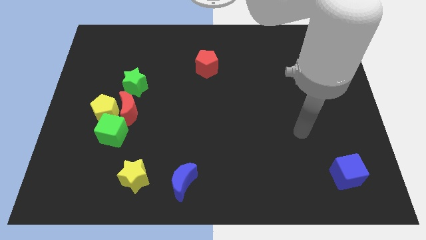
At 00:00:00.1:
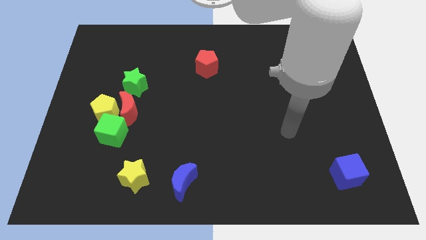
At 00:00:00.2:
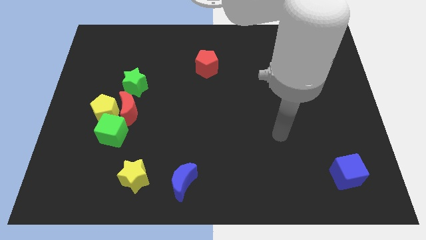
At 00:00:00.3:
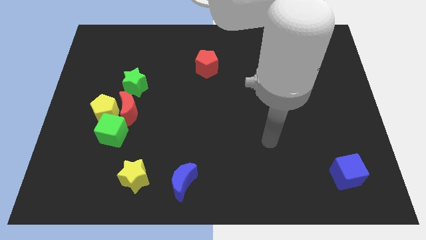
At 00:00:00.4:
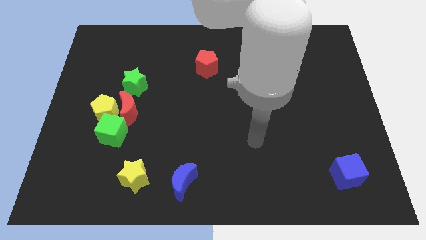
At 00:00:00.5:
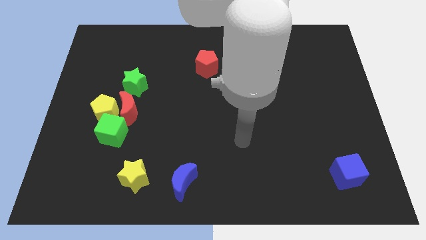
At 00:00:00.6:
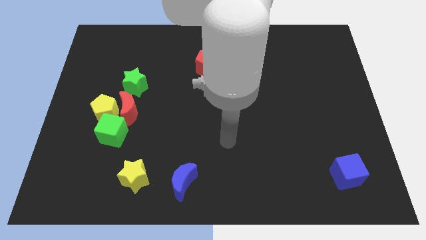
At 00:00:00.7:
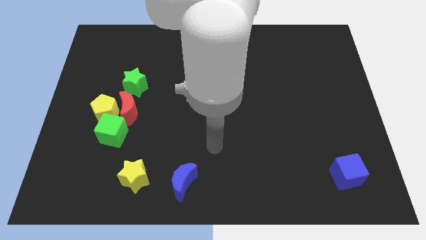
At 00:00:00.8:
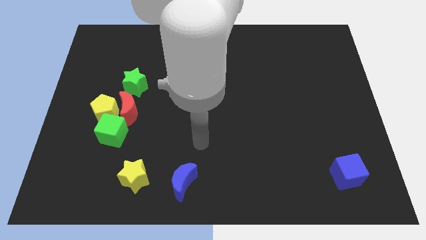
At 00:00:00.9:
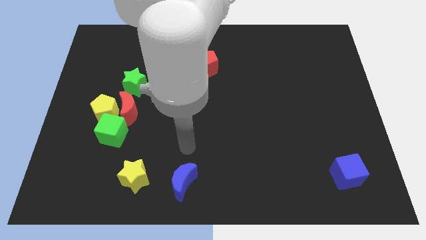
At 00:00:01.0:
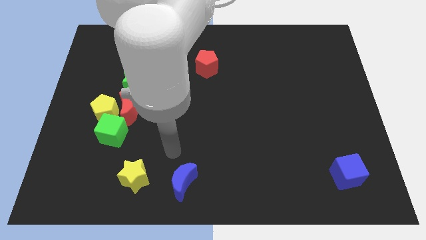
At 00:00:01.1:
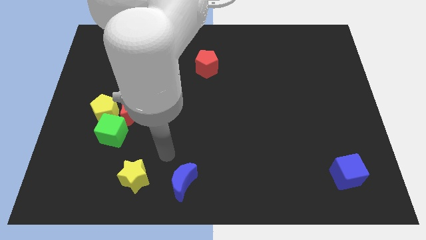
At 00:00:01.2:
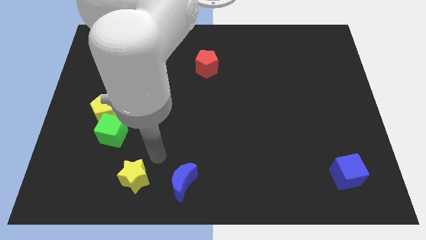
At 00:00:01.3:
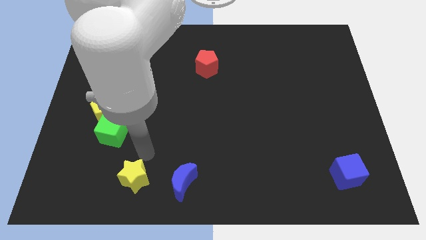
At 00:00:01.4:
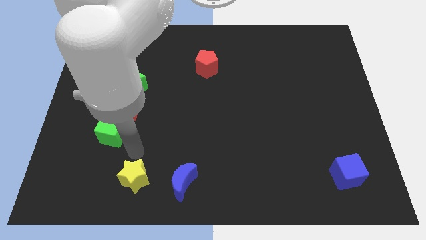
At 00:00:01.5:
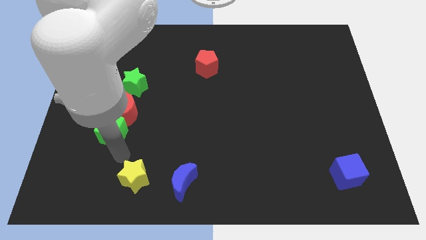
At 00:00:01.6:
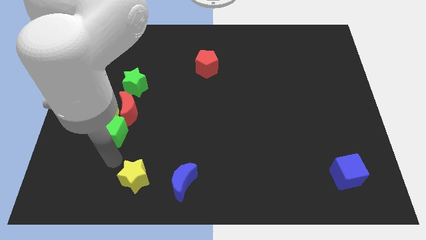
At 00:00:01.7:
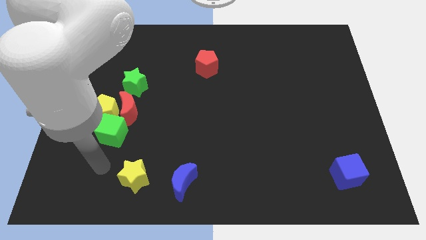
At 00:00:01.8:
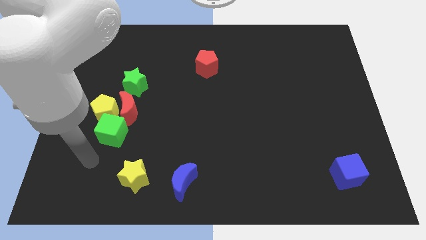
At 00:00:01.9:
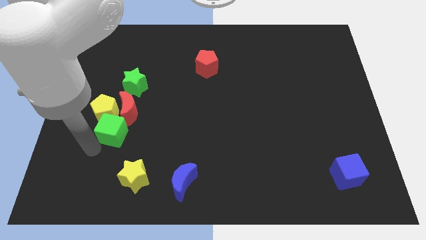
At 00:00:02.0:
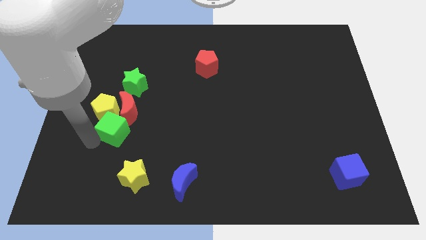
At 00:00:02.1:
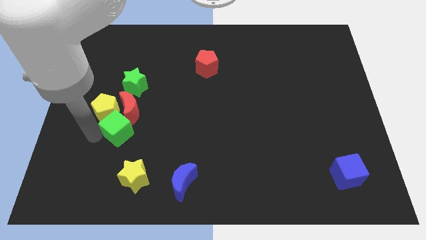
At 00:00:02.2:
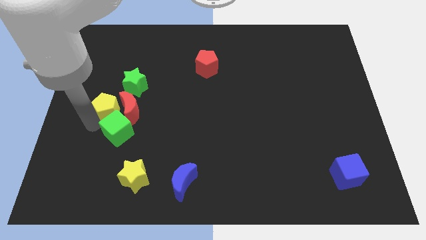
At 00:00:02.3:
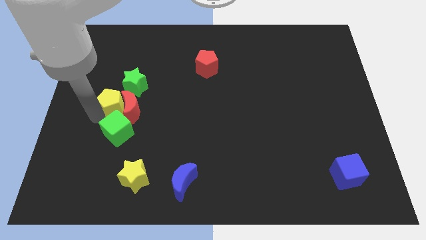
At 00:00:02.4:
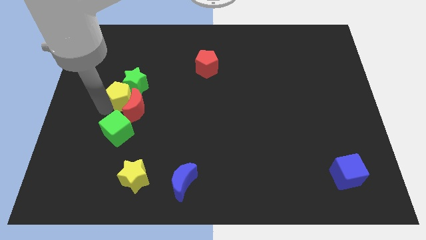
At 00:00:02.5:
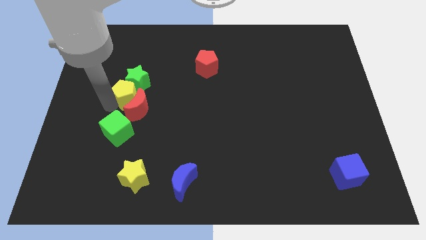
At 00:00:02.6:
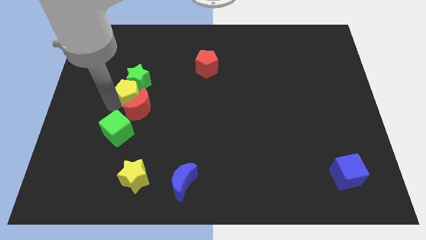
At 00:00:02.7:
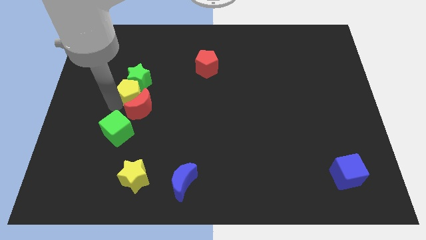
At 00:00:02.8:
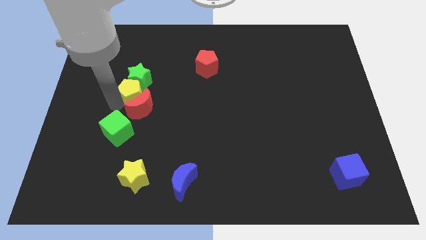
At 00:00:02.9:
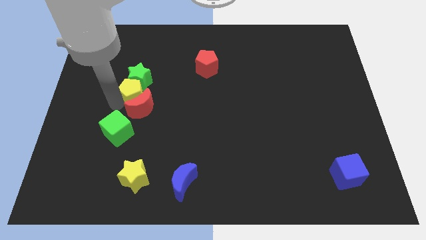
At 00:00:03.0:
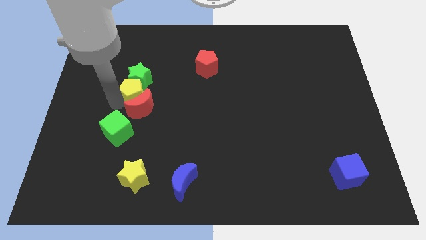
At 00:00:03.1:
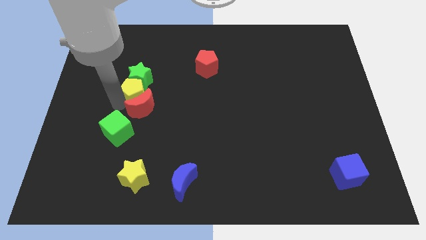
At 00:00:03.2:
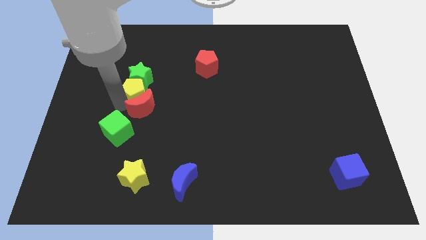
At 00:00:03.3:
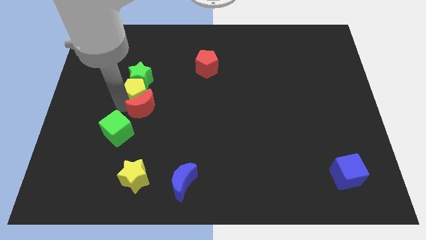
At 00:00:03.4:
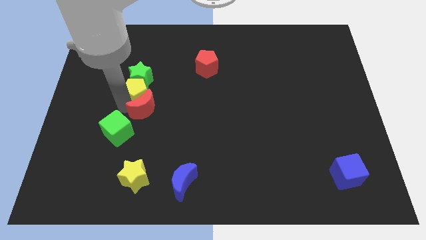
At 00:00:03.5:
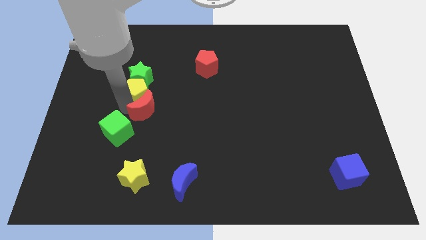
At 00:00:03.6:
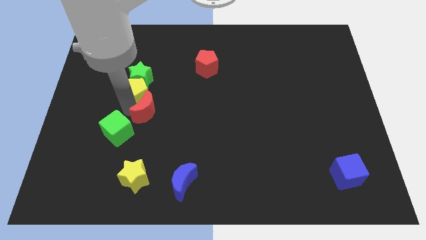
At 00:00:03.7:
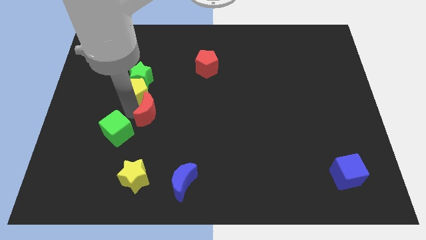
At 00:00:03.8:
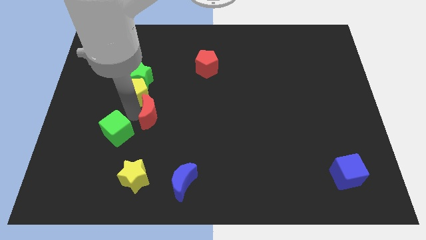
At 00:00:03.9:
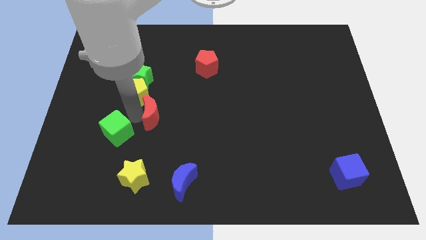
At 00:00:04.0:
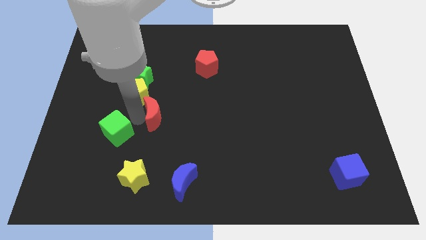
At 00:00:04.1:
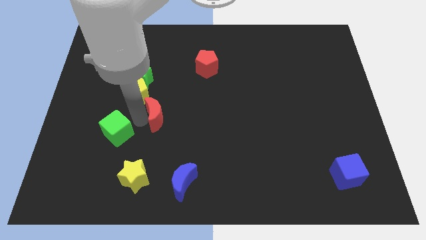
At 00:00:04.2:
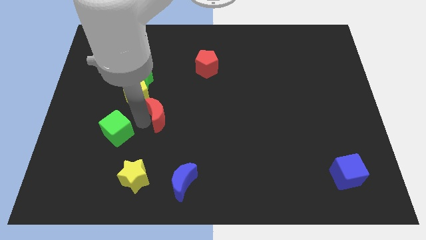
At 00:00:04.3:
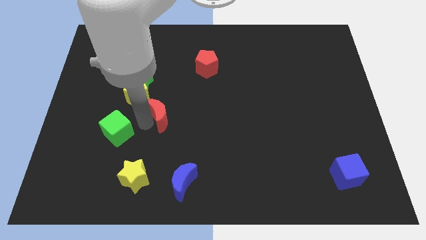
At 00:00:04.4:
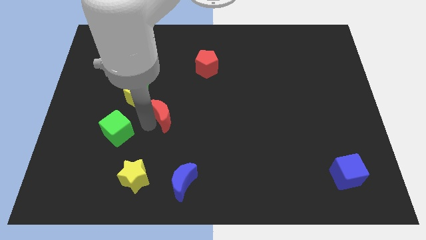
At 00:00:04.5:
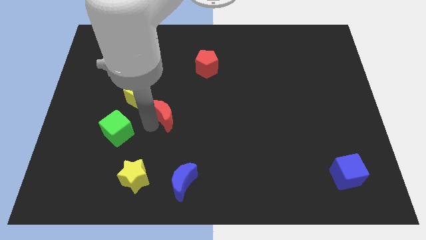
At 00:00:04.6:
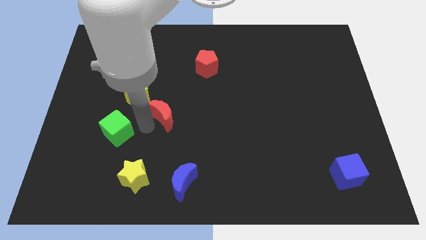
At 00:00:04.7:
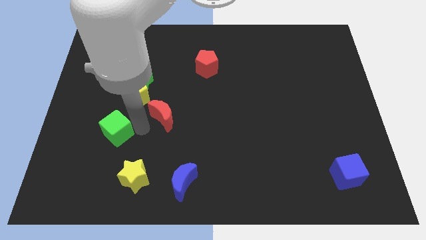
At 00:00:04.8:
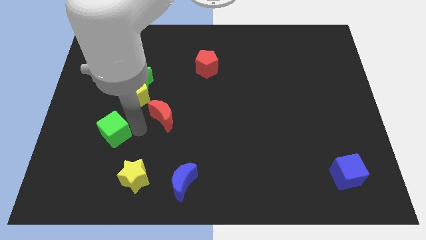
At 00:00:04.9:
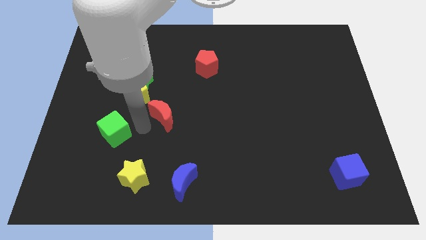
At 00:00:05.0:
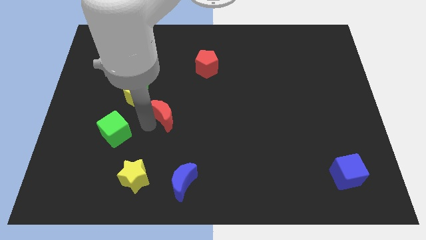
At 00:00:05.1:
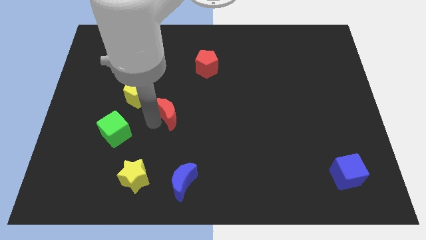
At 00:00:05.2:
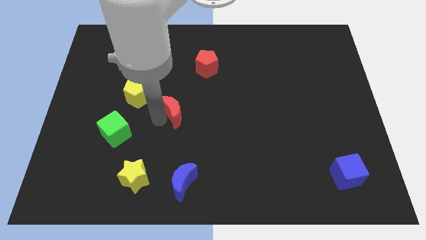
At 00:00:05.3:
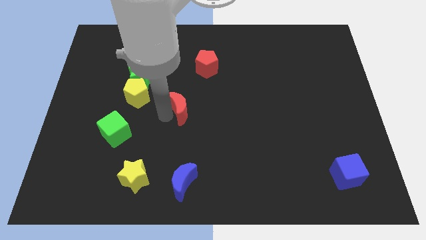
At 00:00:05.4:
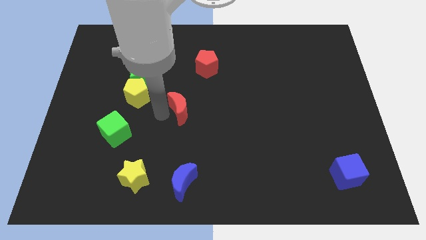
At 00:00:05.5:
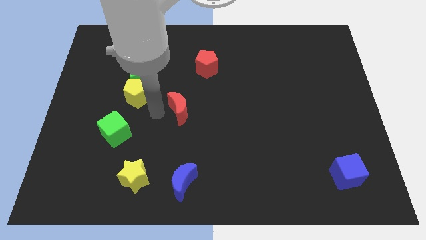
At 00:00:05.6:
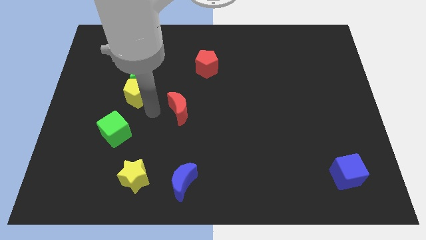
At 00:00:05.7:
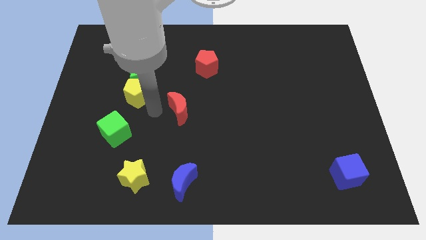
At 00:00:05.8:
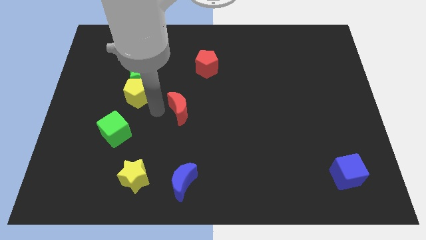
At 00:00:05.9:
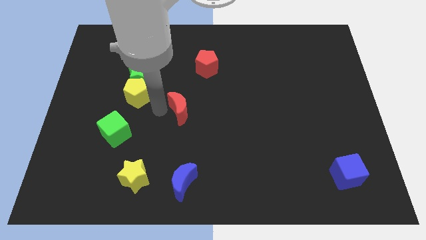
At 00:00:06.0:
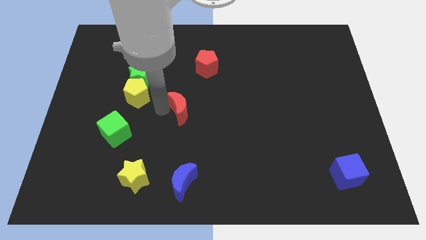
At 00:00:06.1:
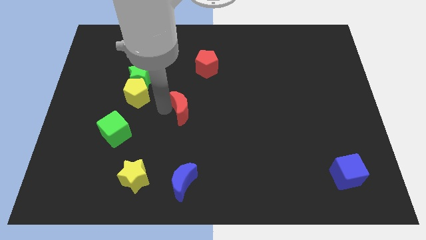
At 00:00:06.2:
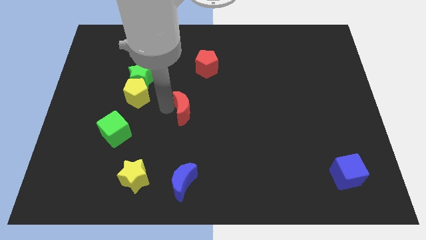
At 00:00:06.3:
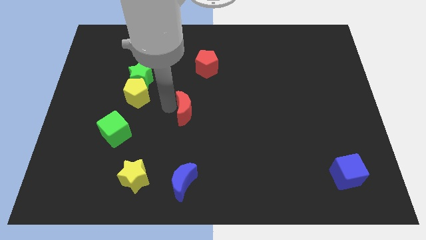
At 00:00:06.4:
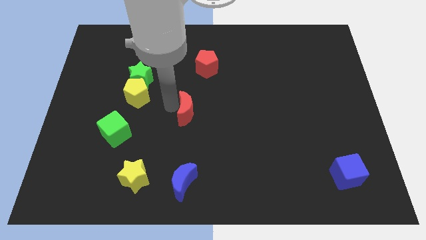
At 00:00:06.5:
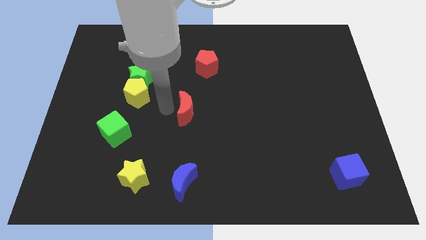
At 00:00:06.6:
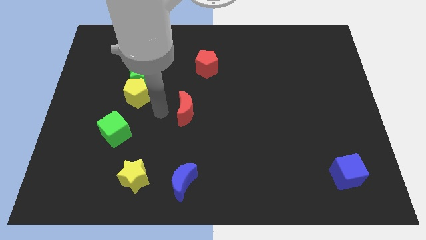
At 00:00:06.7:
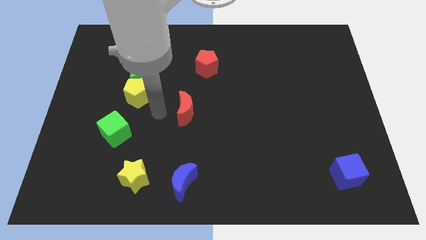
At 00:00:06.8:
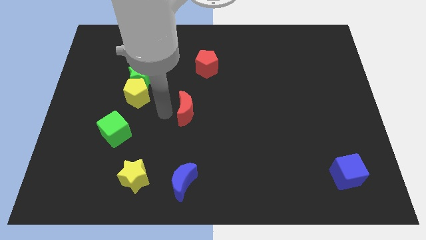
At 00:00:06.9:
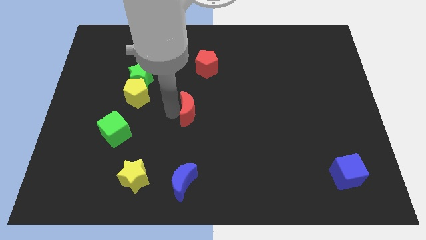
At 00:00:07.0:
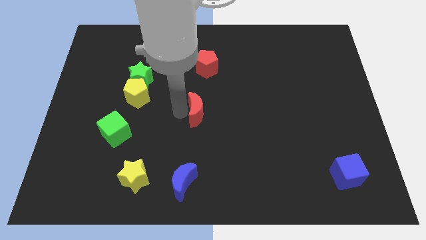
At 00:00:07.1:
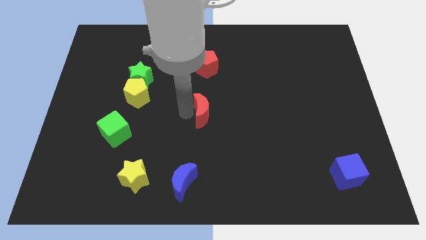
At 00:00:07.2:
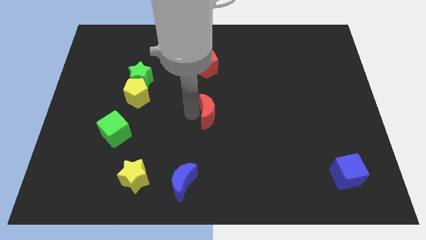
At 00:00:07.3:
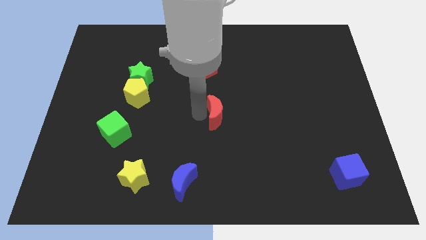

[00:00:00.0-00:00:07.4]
slide the red moon right
